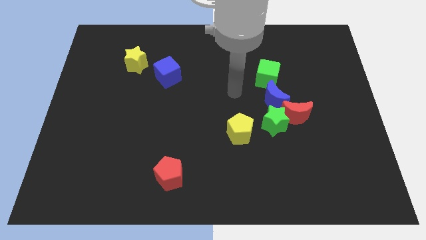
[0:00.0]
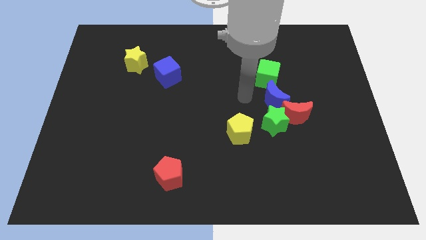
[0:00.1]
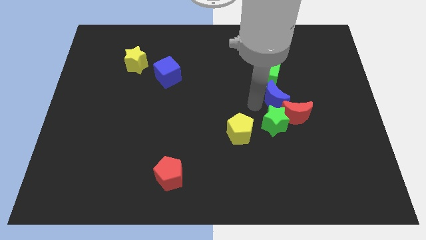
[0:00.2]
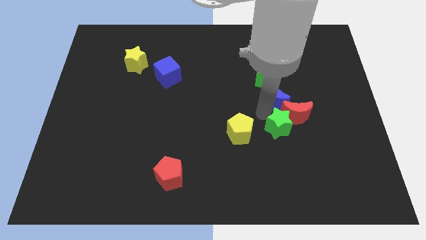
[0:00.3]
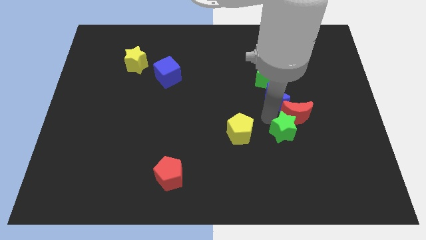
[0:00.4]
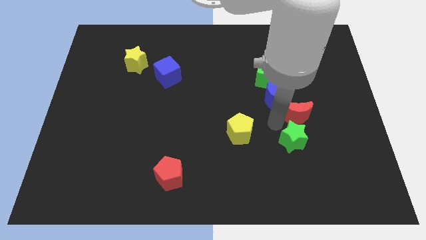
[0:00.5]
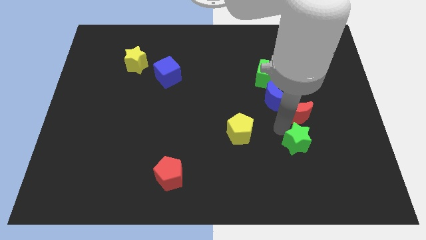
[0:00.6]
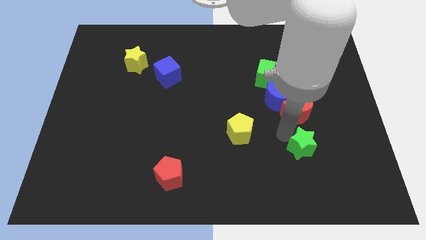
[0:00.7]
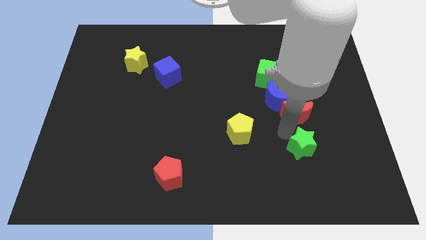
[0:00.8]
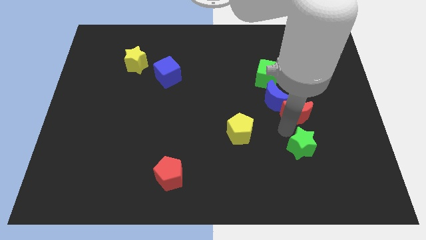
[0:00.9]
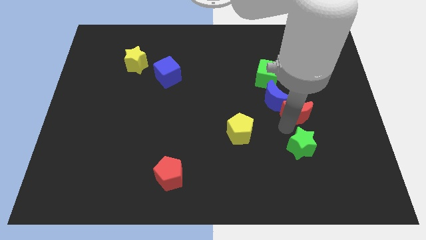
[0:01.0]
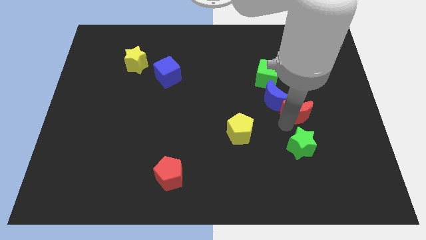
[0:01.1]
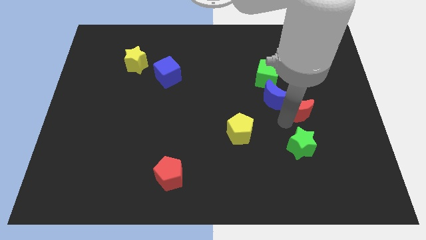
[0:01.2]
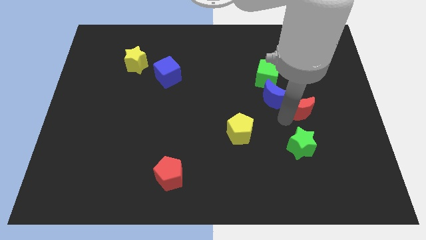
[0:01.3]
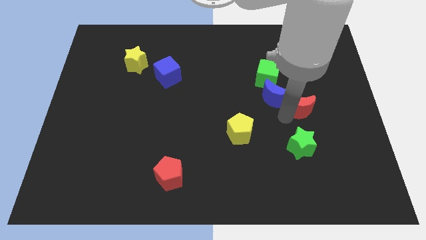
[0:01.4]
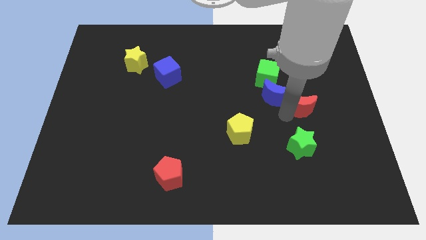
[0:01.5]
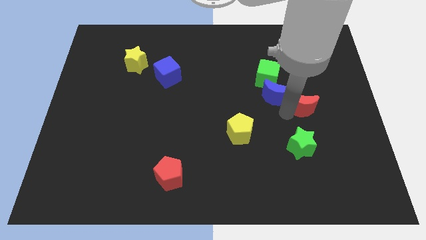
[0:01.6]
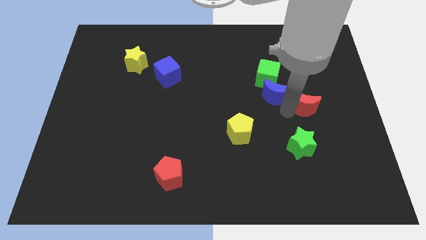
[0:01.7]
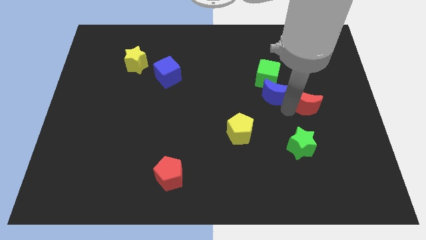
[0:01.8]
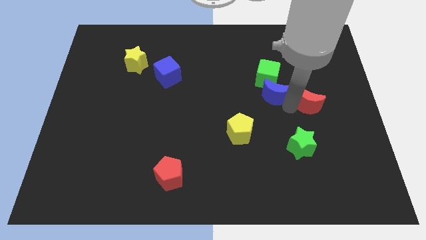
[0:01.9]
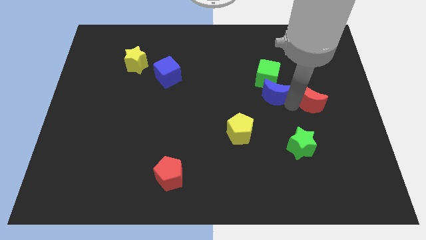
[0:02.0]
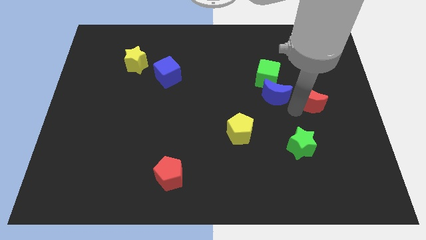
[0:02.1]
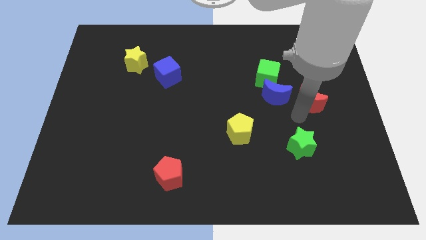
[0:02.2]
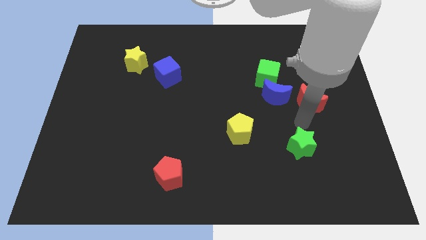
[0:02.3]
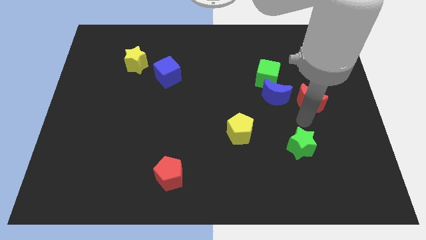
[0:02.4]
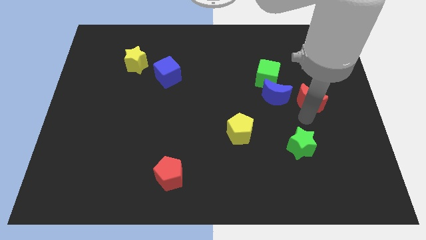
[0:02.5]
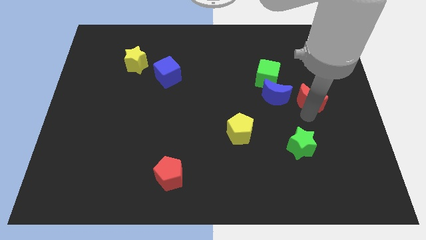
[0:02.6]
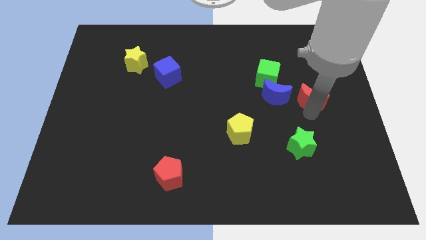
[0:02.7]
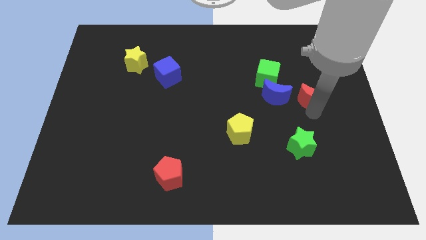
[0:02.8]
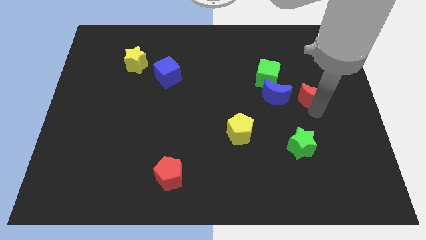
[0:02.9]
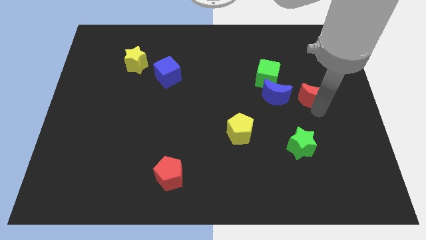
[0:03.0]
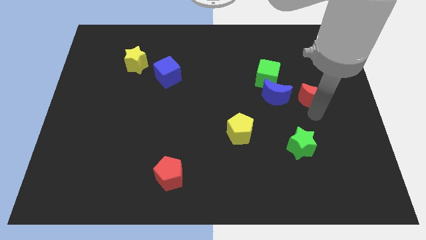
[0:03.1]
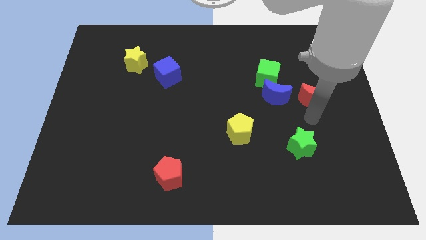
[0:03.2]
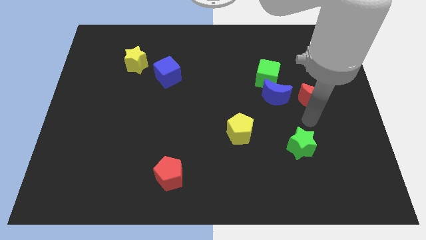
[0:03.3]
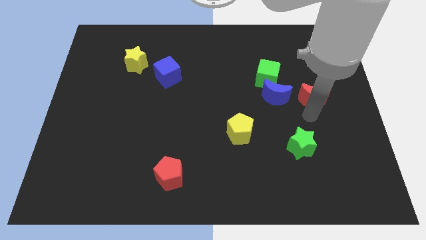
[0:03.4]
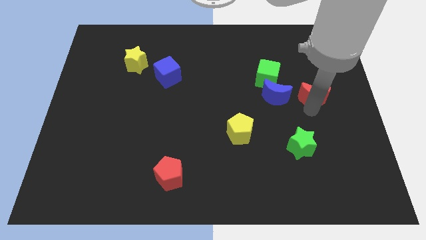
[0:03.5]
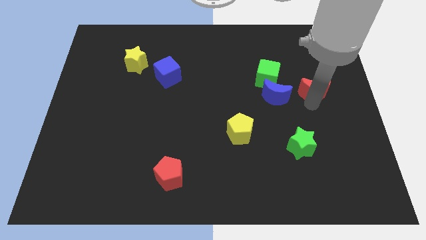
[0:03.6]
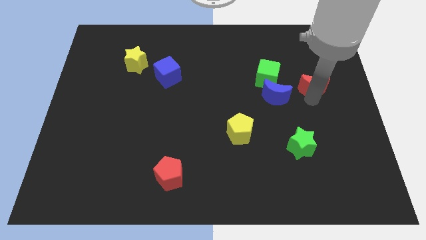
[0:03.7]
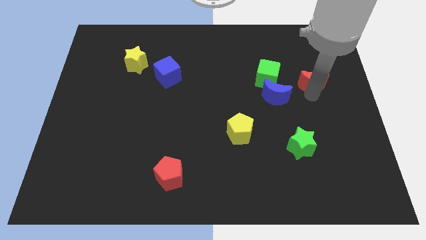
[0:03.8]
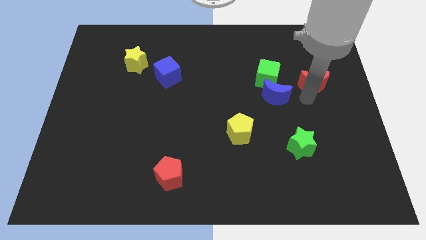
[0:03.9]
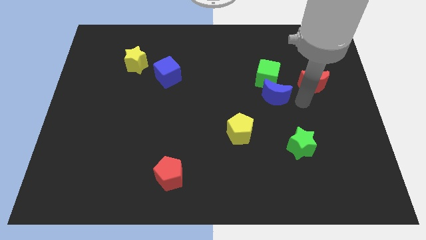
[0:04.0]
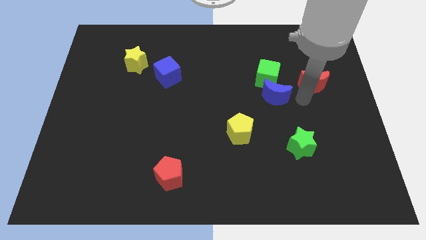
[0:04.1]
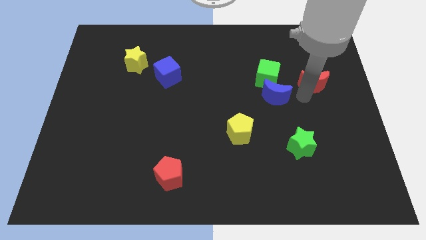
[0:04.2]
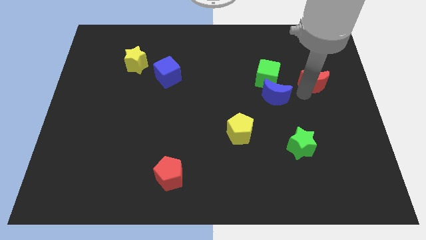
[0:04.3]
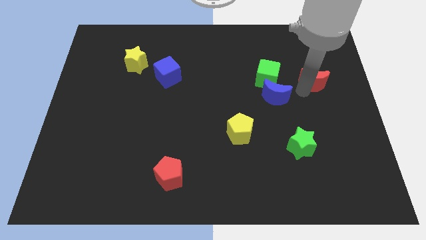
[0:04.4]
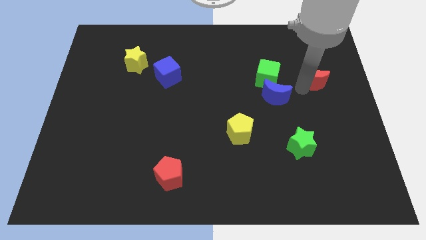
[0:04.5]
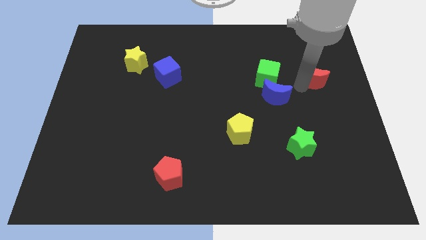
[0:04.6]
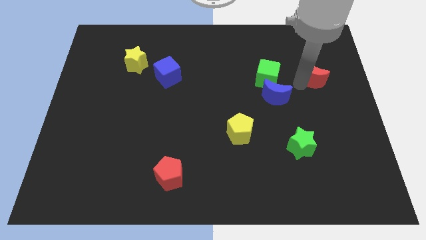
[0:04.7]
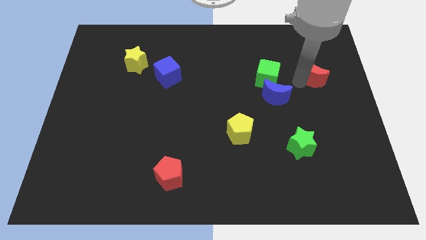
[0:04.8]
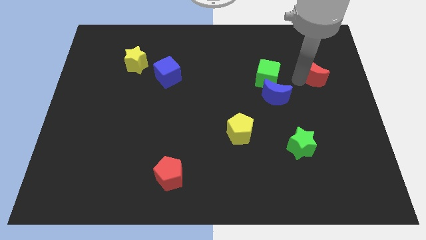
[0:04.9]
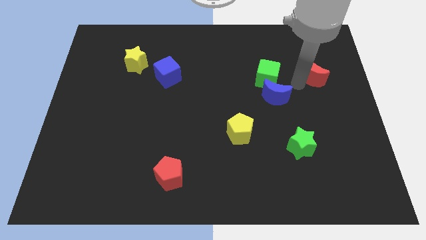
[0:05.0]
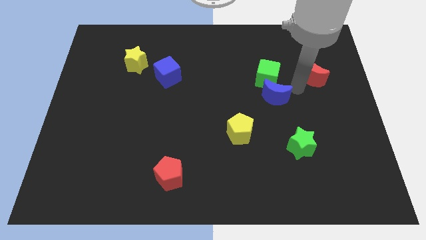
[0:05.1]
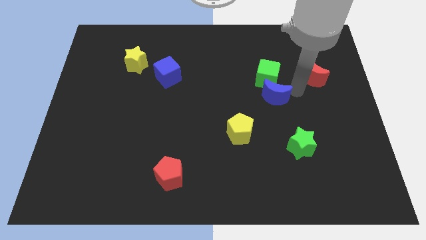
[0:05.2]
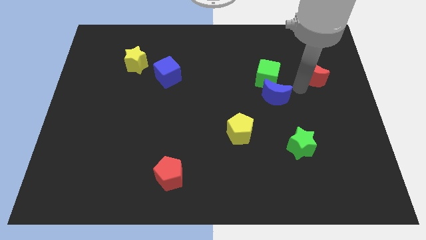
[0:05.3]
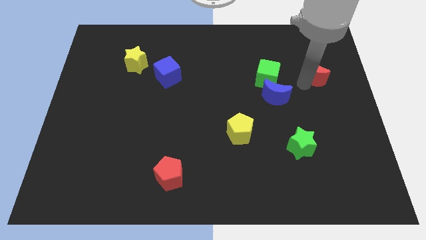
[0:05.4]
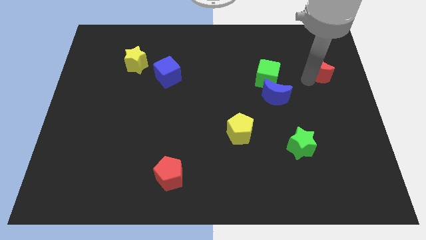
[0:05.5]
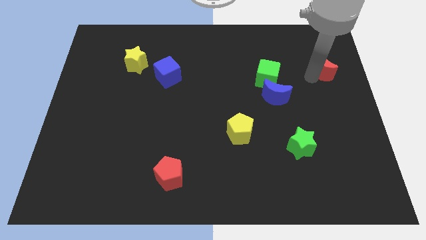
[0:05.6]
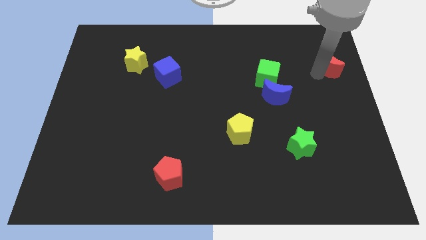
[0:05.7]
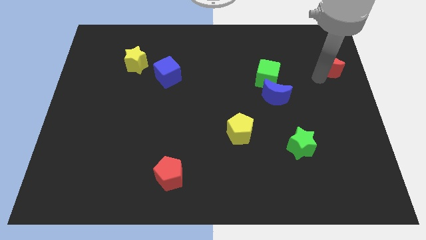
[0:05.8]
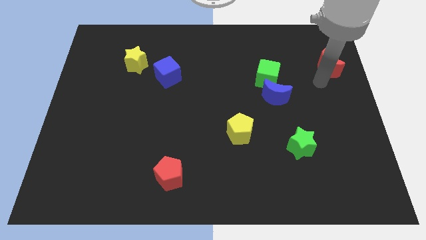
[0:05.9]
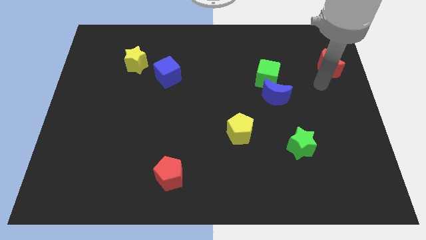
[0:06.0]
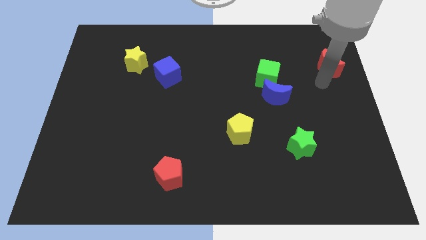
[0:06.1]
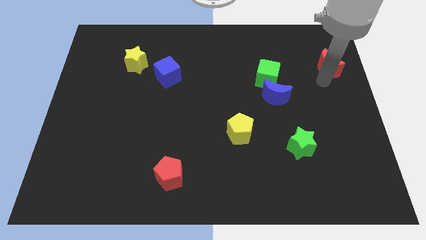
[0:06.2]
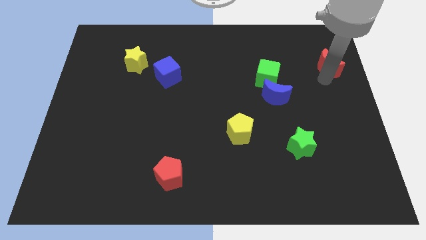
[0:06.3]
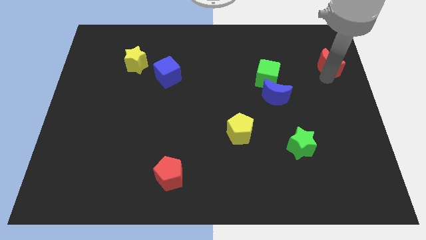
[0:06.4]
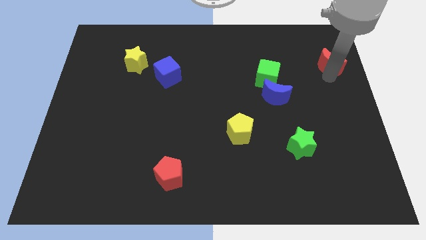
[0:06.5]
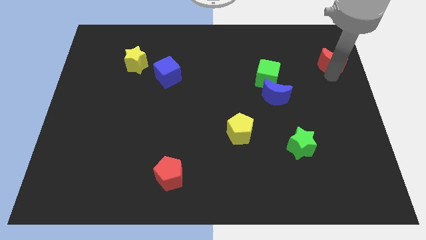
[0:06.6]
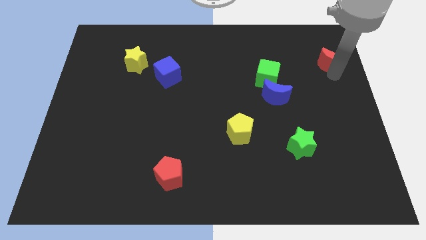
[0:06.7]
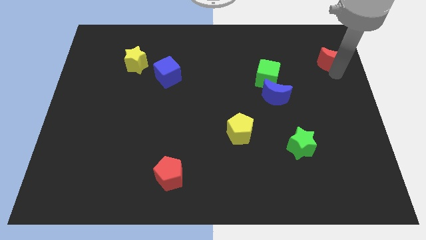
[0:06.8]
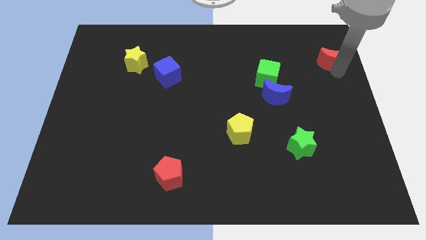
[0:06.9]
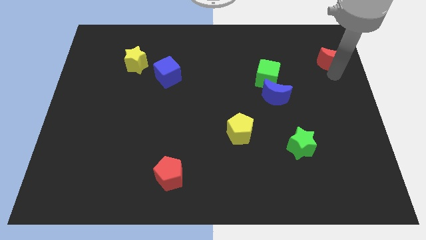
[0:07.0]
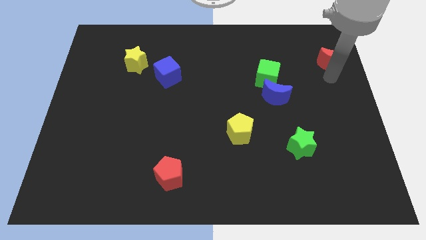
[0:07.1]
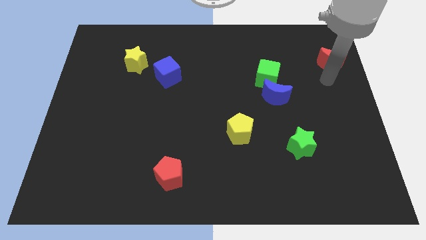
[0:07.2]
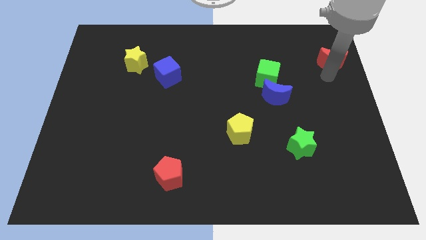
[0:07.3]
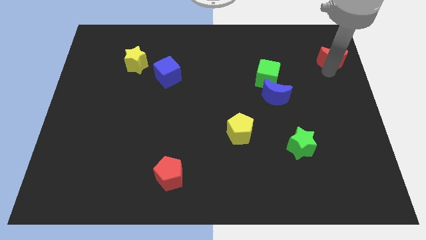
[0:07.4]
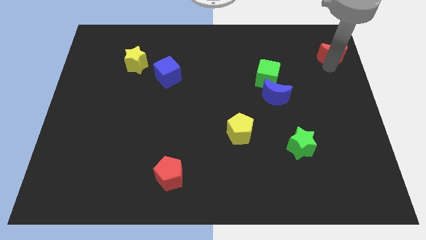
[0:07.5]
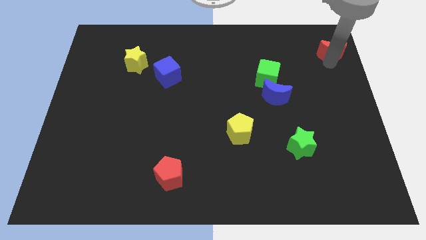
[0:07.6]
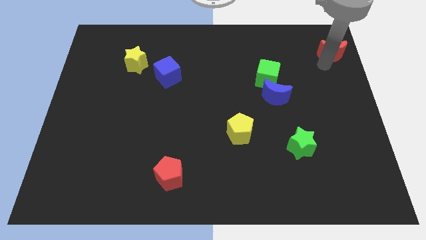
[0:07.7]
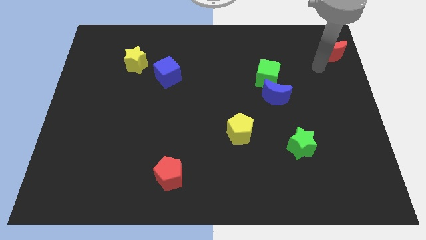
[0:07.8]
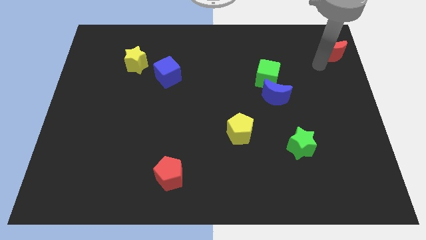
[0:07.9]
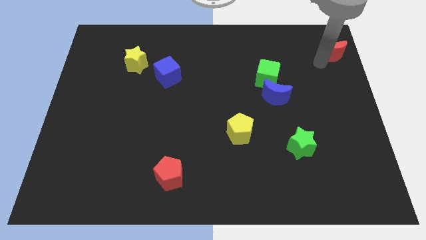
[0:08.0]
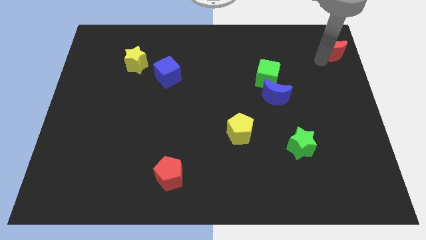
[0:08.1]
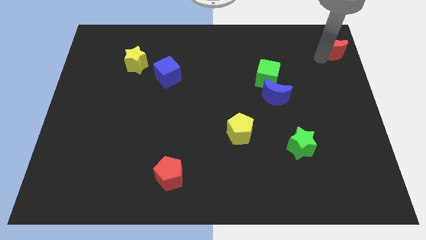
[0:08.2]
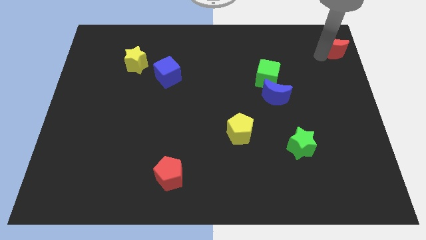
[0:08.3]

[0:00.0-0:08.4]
move the red moon to the top right of the board
